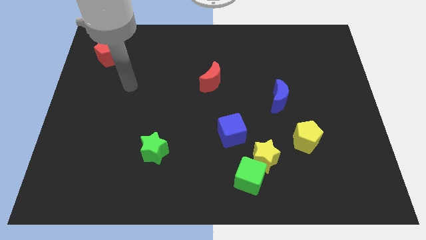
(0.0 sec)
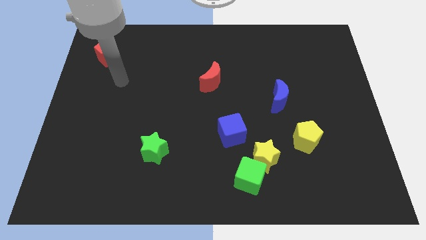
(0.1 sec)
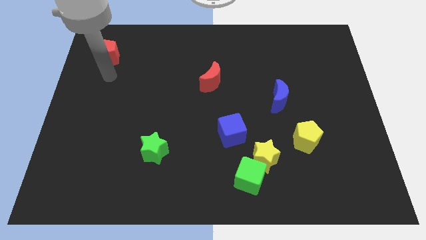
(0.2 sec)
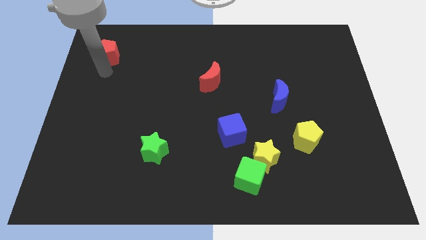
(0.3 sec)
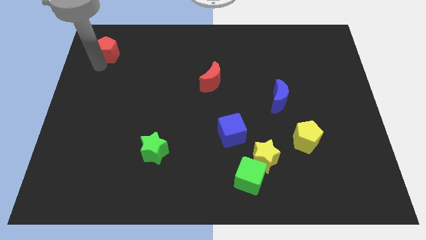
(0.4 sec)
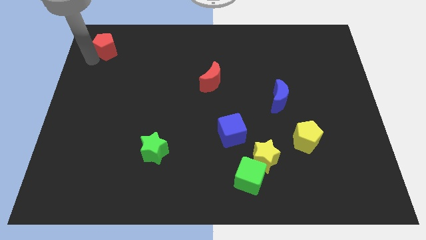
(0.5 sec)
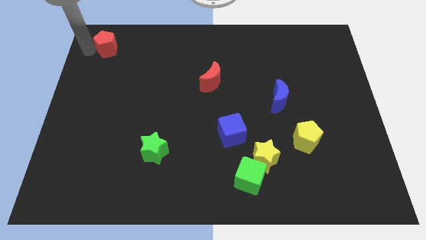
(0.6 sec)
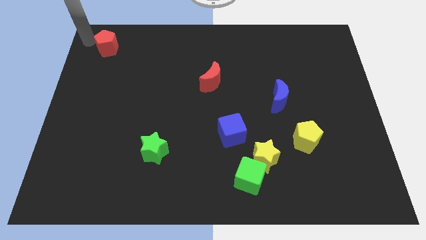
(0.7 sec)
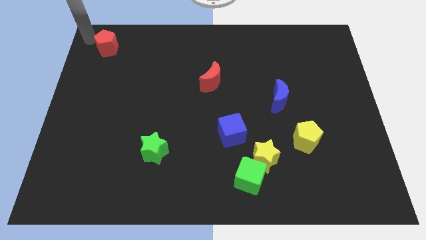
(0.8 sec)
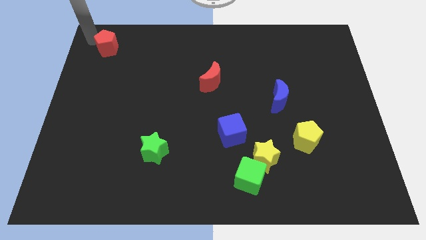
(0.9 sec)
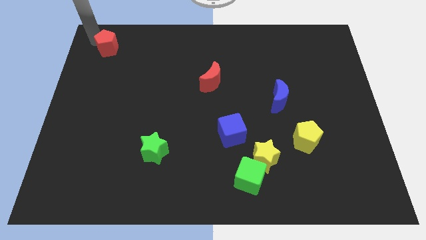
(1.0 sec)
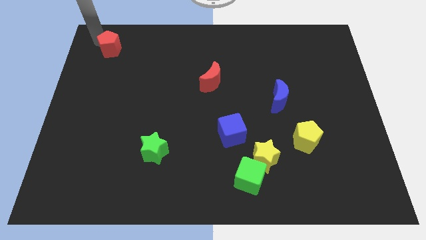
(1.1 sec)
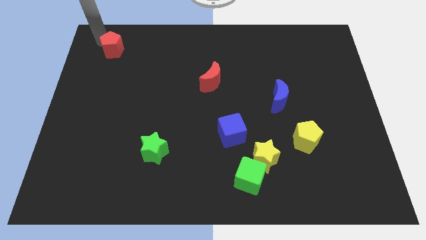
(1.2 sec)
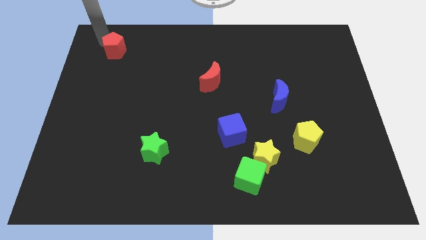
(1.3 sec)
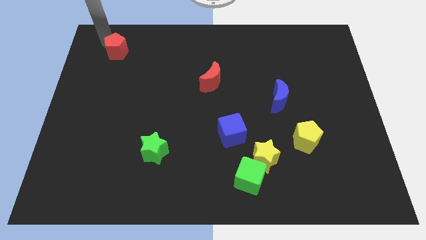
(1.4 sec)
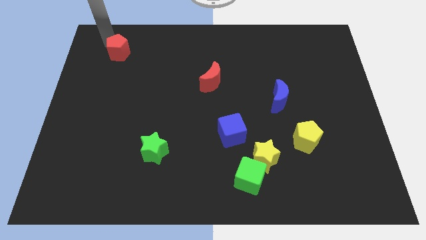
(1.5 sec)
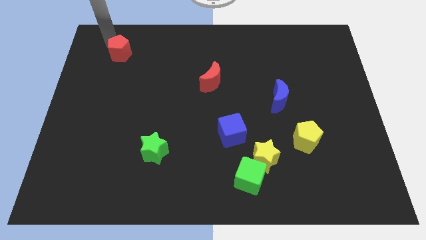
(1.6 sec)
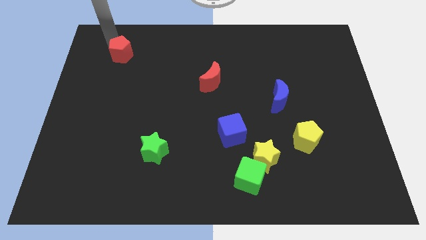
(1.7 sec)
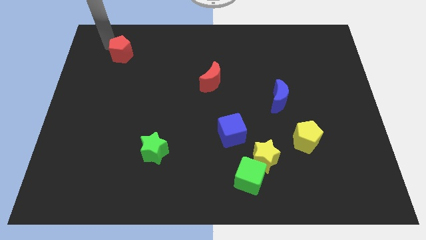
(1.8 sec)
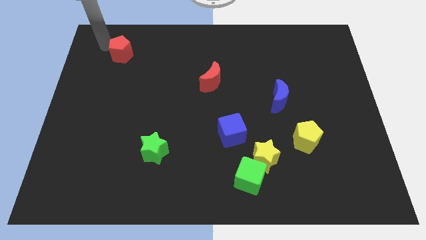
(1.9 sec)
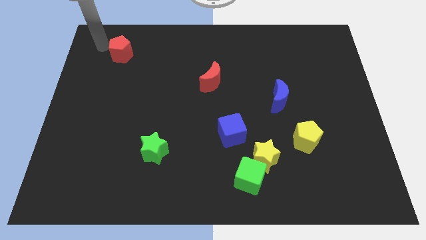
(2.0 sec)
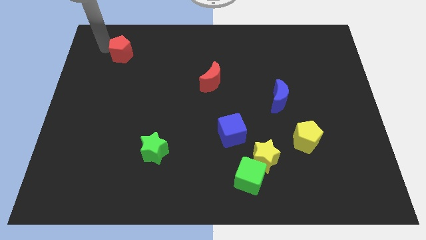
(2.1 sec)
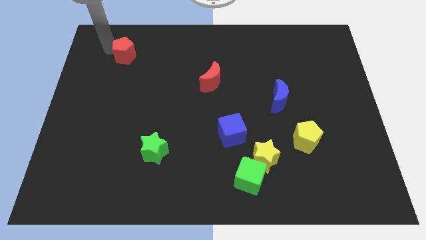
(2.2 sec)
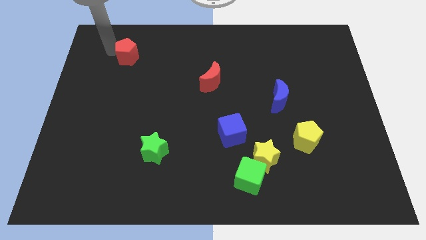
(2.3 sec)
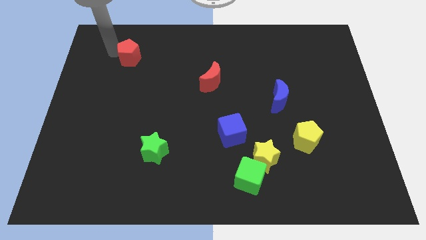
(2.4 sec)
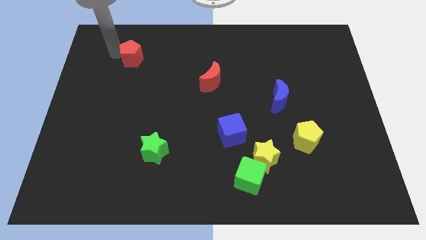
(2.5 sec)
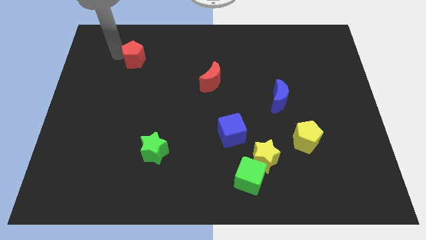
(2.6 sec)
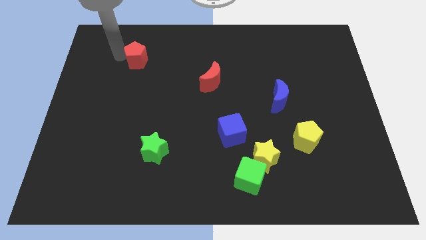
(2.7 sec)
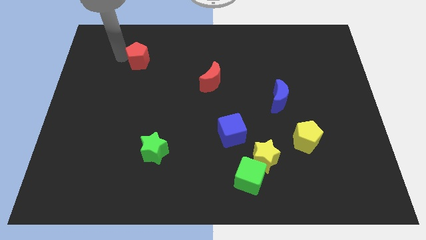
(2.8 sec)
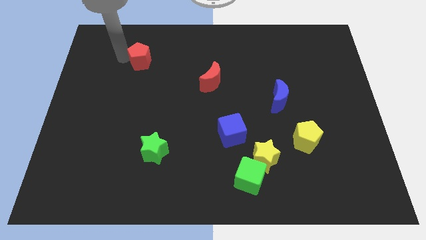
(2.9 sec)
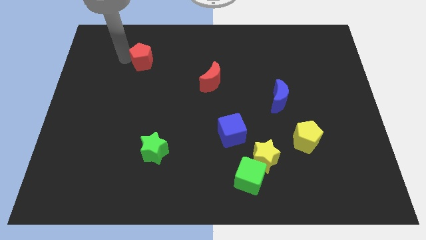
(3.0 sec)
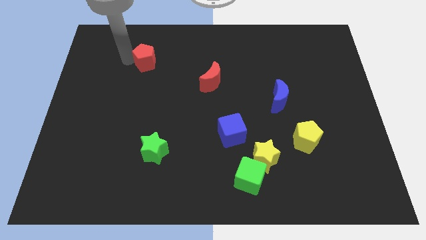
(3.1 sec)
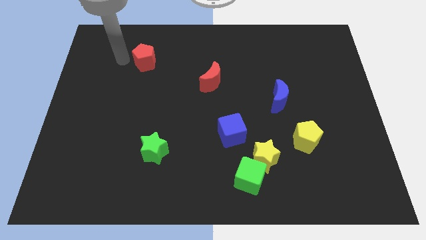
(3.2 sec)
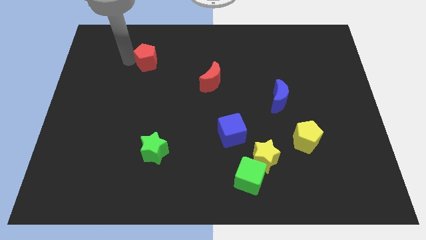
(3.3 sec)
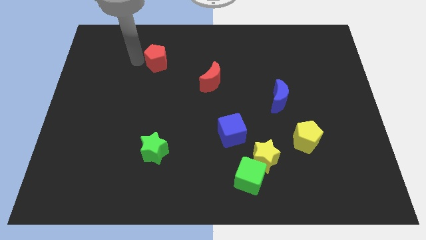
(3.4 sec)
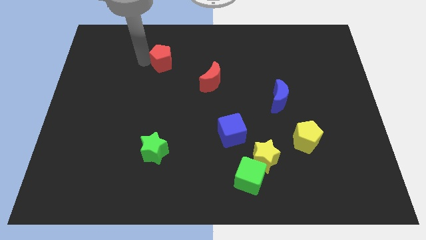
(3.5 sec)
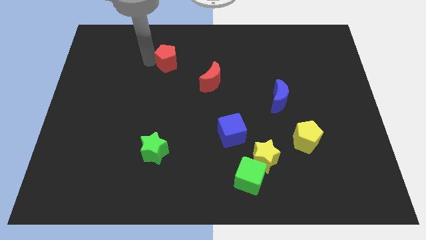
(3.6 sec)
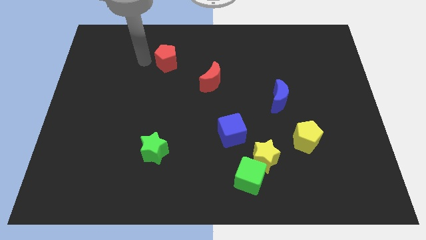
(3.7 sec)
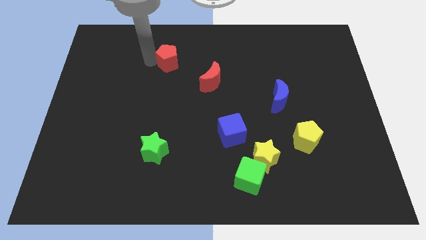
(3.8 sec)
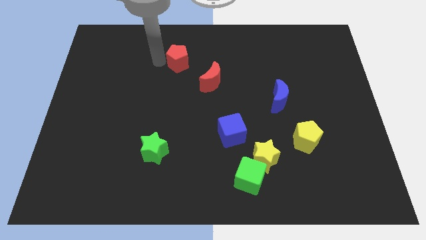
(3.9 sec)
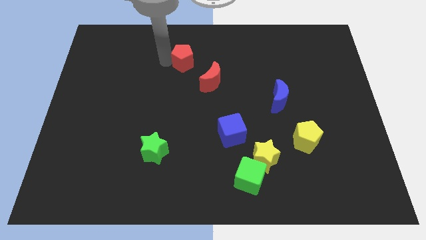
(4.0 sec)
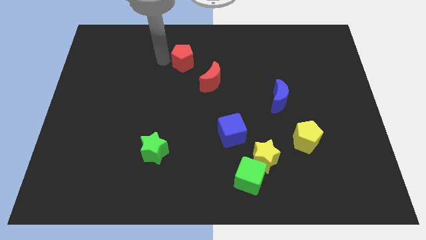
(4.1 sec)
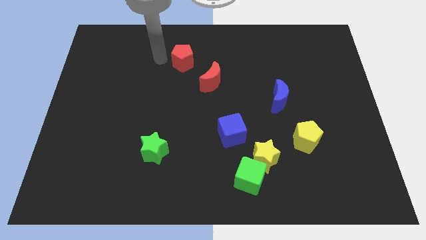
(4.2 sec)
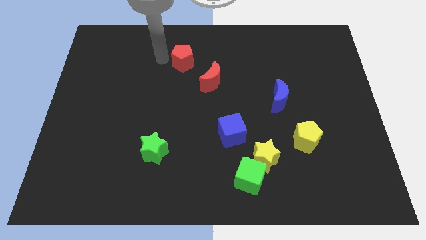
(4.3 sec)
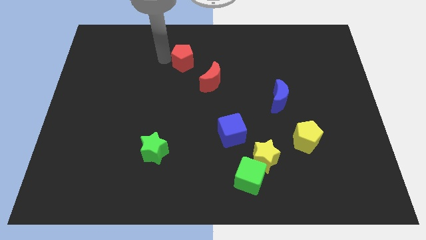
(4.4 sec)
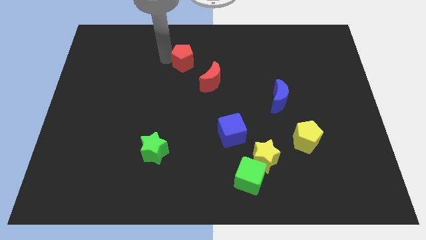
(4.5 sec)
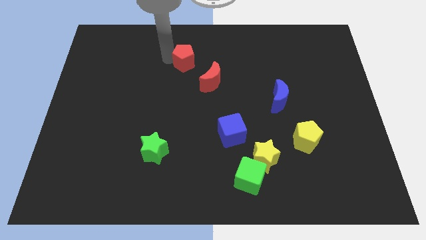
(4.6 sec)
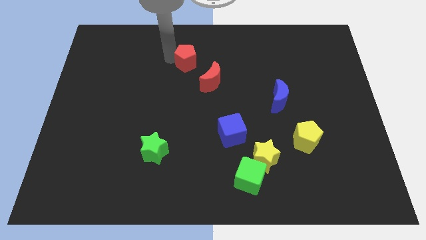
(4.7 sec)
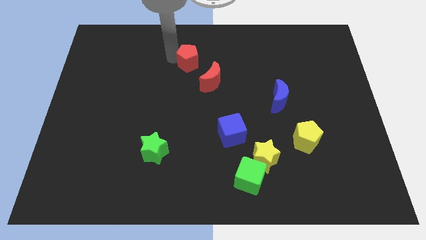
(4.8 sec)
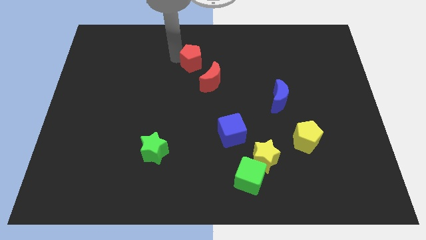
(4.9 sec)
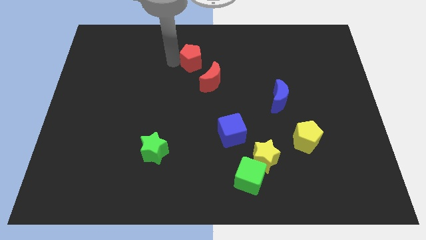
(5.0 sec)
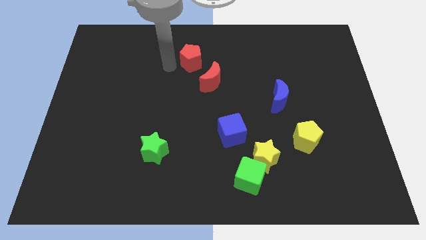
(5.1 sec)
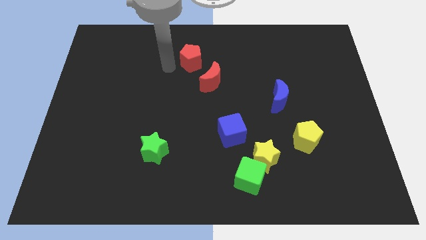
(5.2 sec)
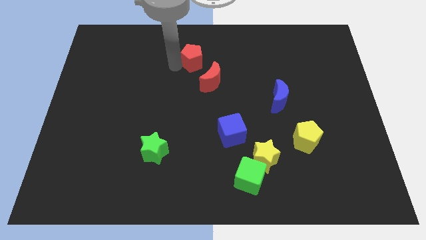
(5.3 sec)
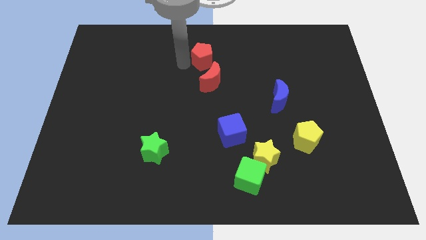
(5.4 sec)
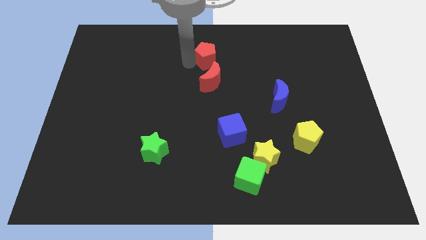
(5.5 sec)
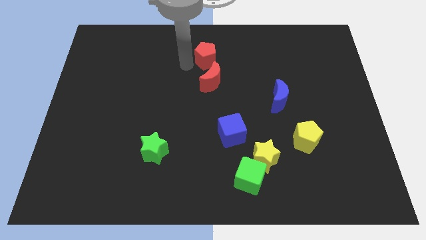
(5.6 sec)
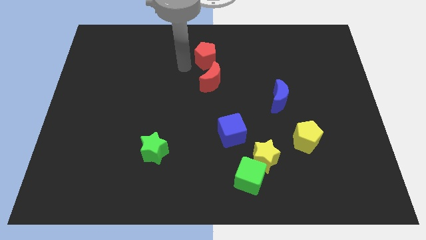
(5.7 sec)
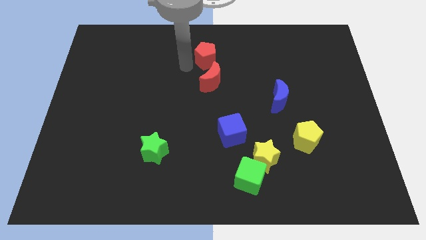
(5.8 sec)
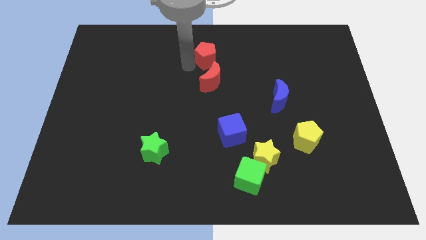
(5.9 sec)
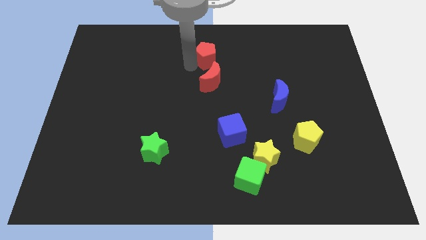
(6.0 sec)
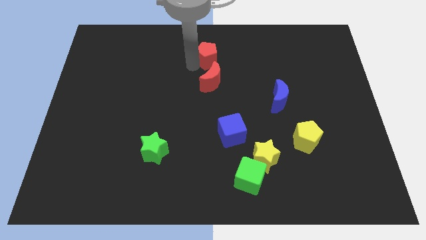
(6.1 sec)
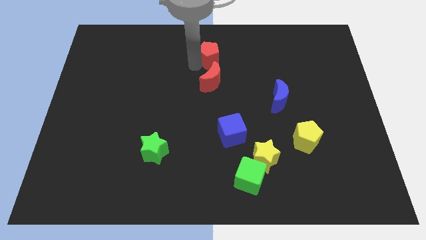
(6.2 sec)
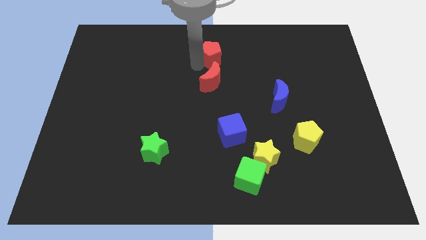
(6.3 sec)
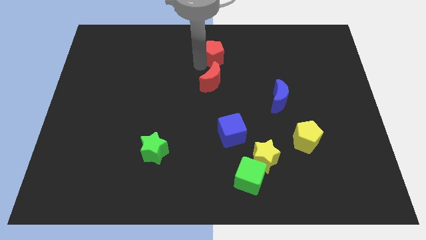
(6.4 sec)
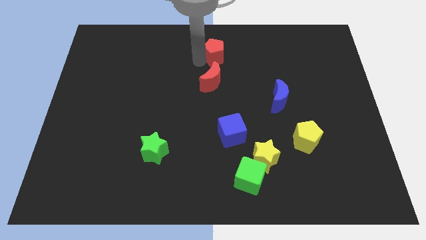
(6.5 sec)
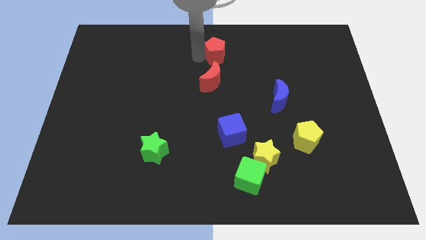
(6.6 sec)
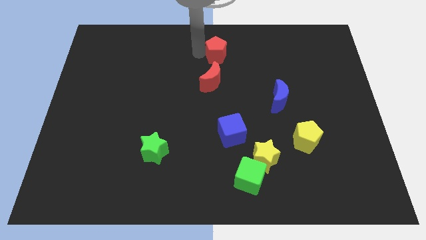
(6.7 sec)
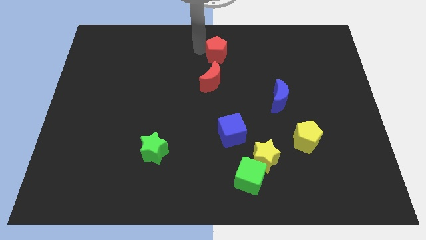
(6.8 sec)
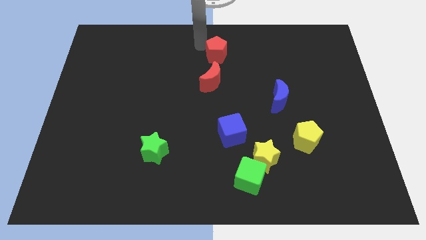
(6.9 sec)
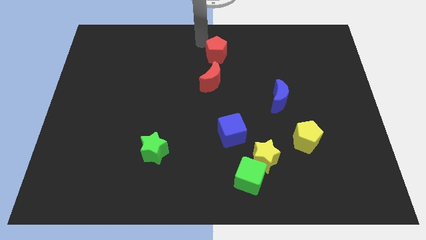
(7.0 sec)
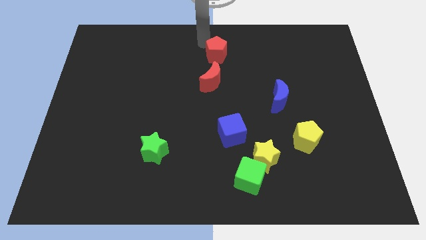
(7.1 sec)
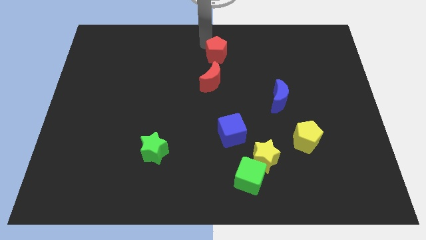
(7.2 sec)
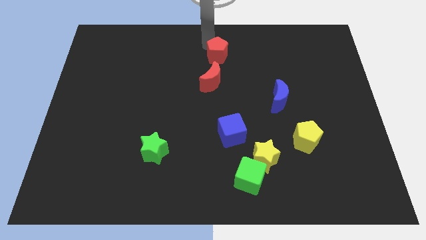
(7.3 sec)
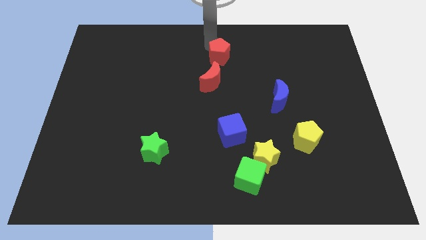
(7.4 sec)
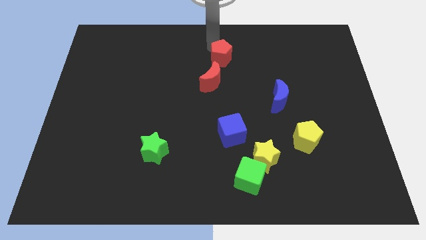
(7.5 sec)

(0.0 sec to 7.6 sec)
slide the red pentagon diagonally up and to the right of the red moon
